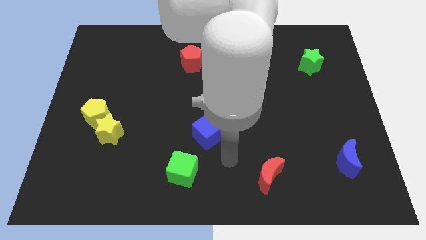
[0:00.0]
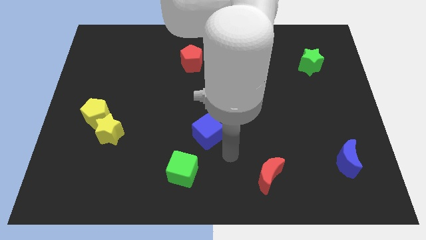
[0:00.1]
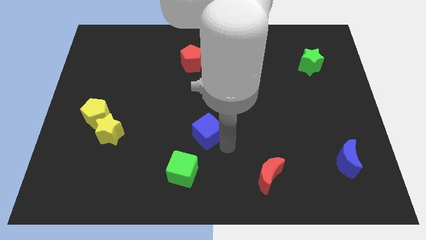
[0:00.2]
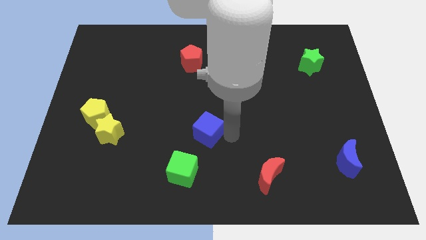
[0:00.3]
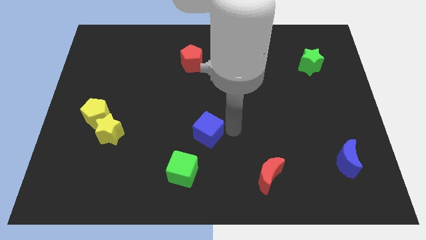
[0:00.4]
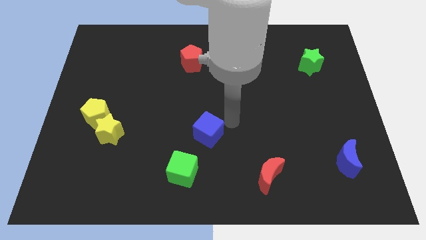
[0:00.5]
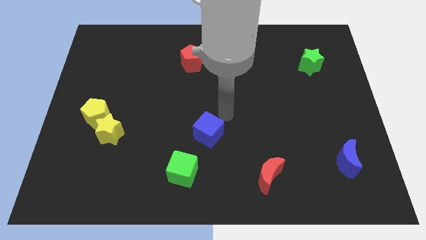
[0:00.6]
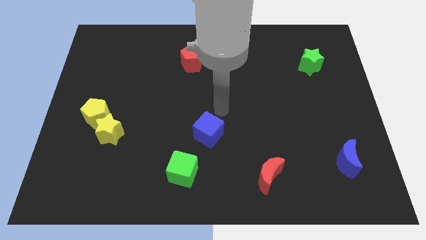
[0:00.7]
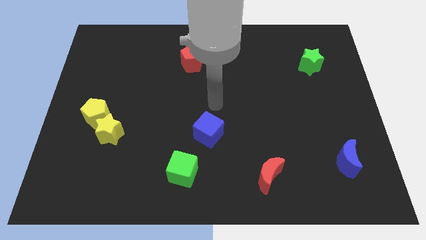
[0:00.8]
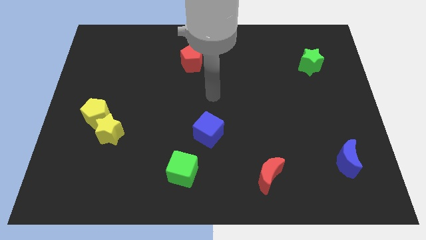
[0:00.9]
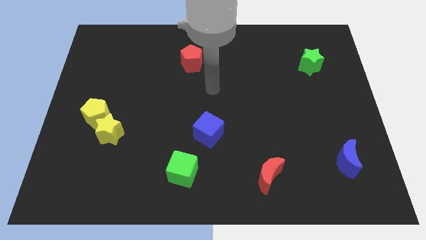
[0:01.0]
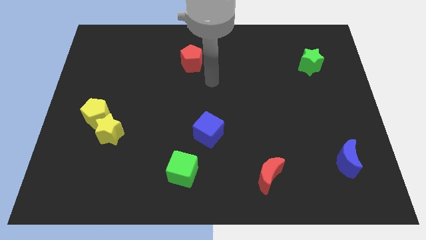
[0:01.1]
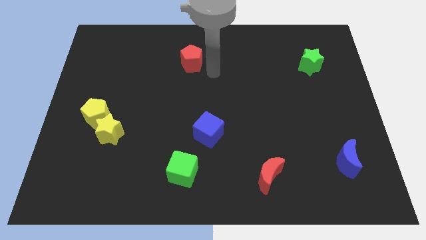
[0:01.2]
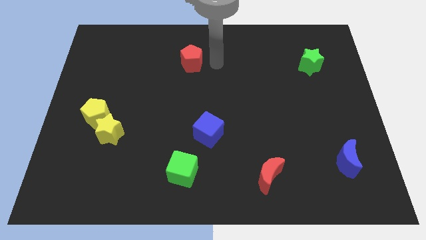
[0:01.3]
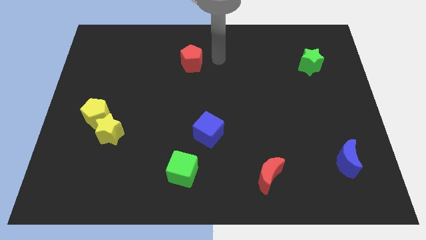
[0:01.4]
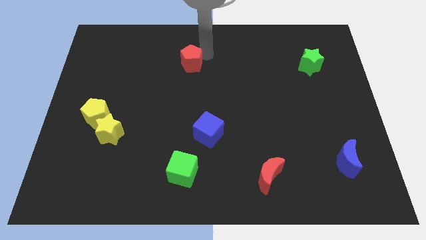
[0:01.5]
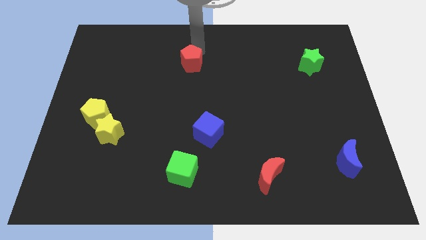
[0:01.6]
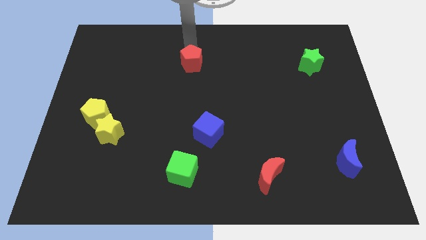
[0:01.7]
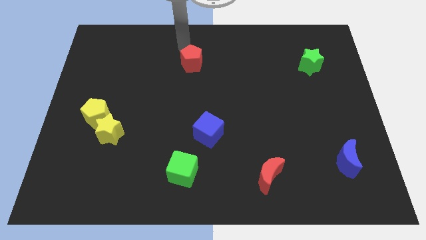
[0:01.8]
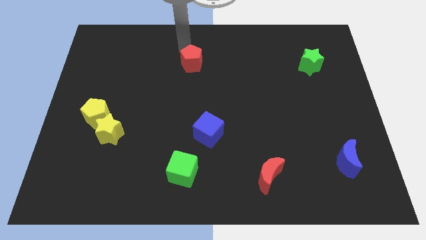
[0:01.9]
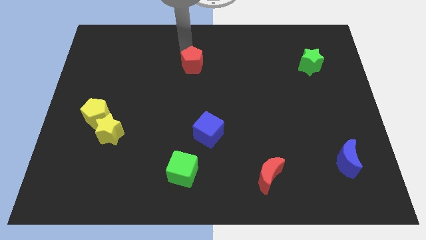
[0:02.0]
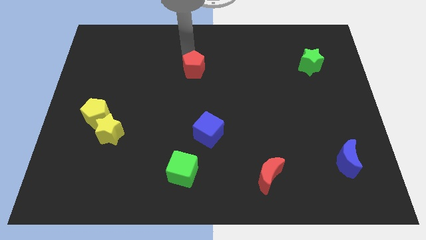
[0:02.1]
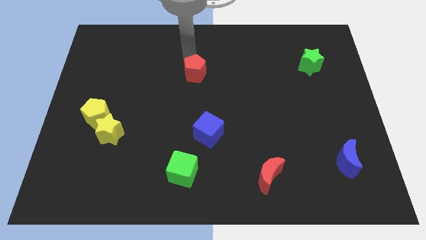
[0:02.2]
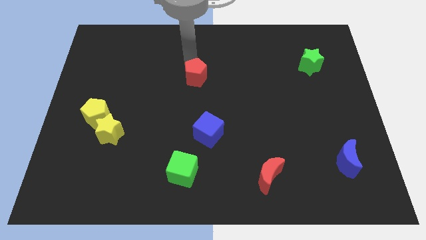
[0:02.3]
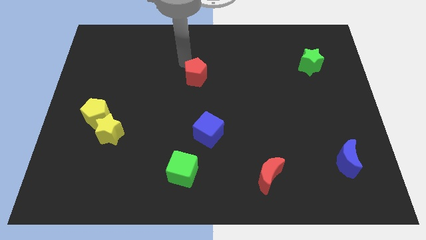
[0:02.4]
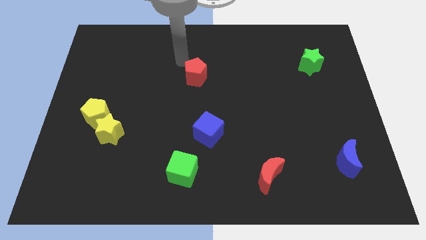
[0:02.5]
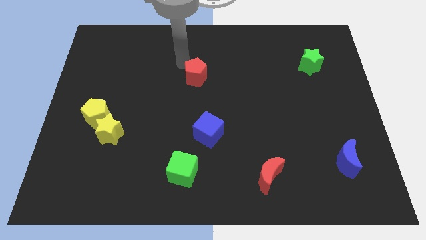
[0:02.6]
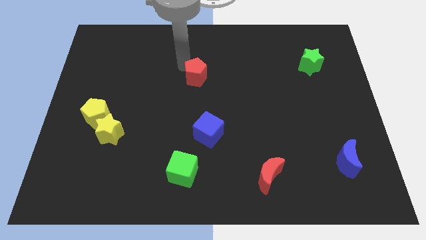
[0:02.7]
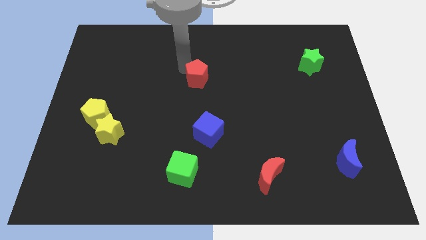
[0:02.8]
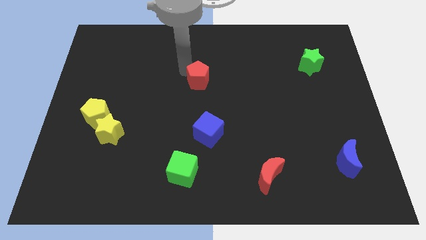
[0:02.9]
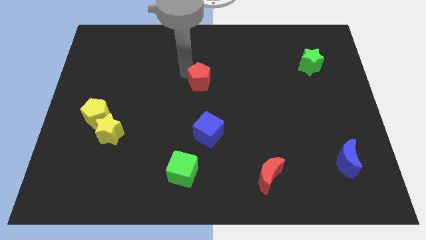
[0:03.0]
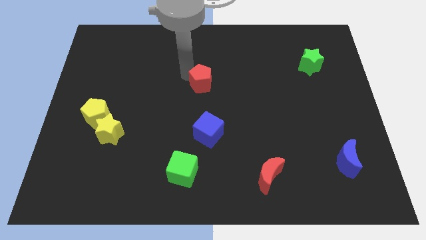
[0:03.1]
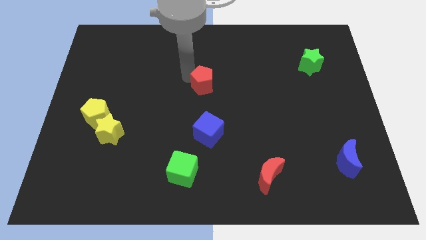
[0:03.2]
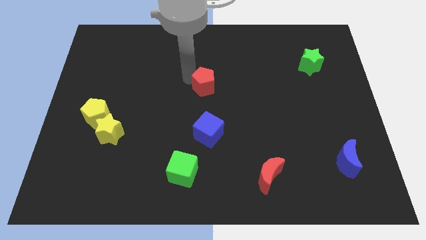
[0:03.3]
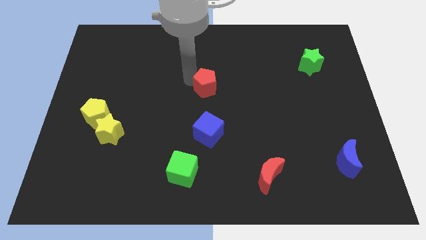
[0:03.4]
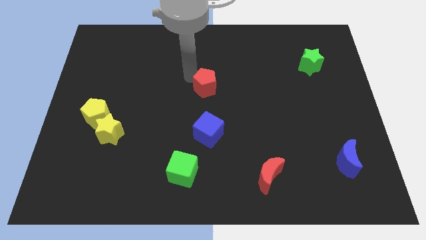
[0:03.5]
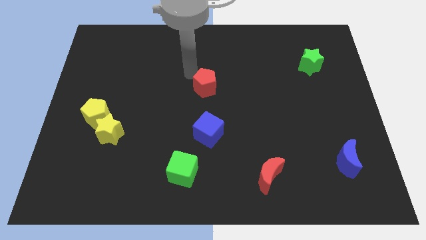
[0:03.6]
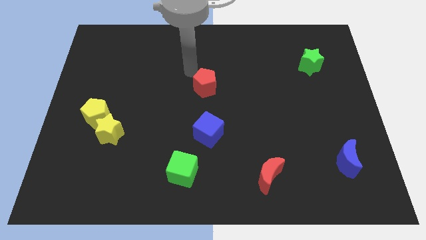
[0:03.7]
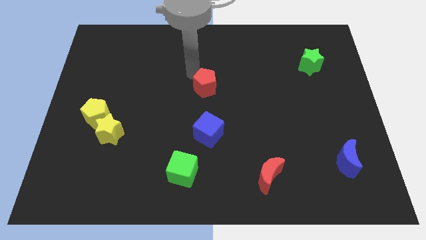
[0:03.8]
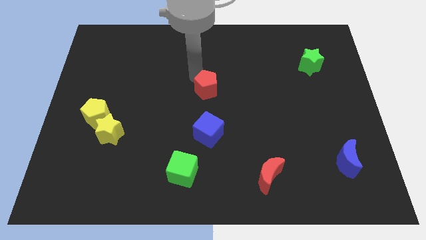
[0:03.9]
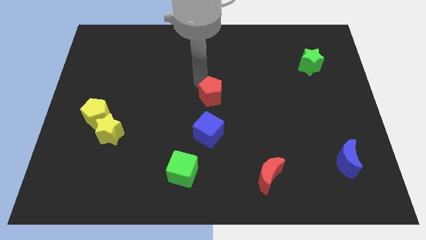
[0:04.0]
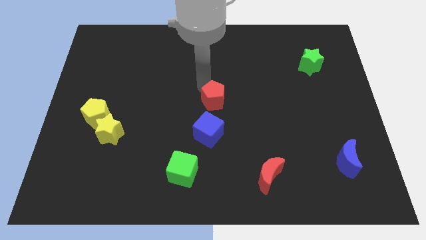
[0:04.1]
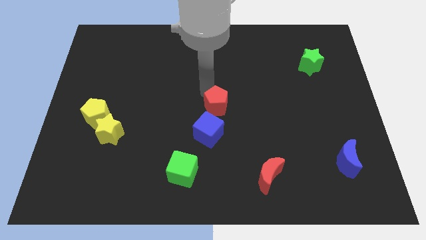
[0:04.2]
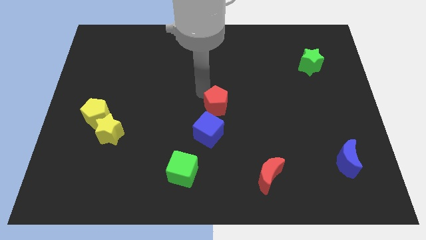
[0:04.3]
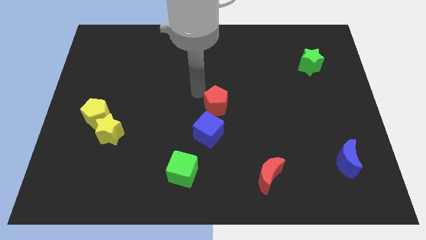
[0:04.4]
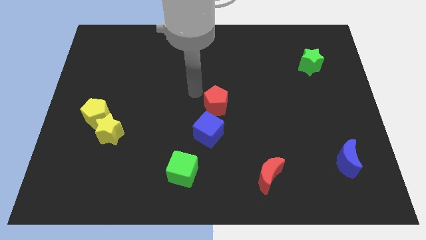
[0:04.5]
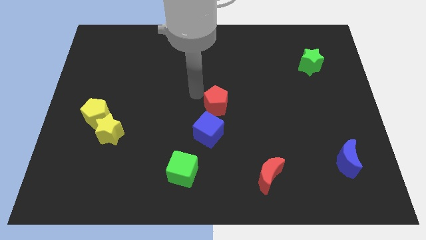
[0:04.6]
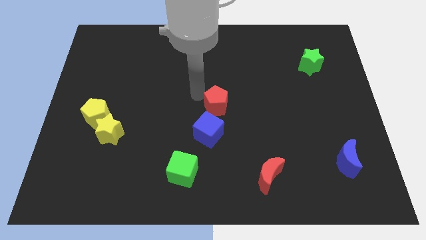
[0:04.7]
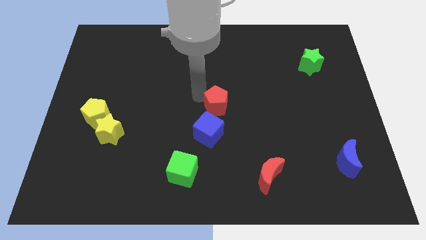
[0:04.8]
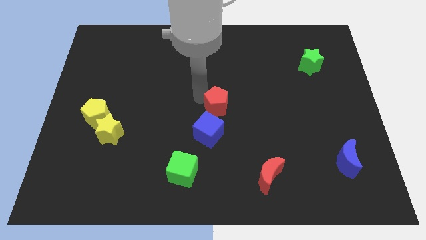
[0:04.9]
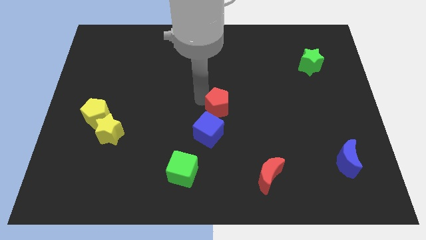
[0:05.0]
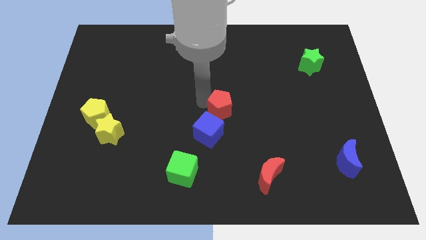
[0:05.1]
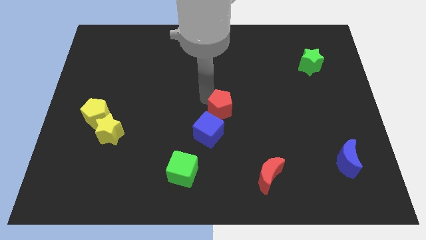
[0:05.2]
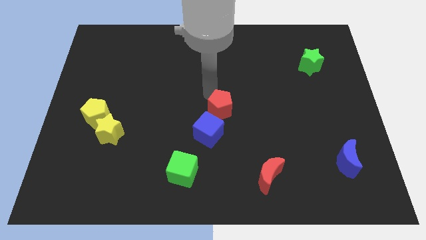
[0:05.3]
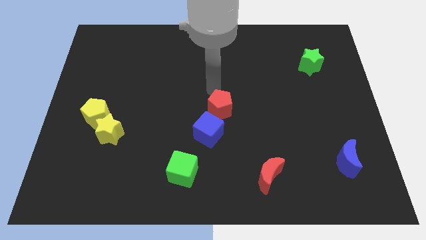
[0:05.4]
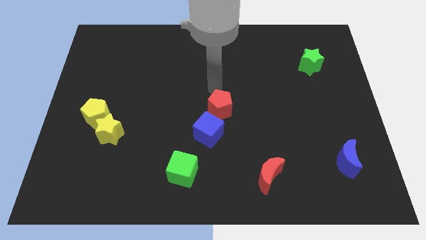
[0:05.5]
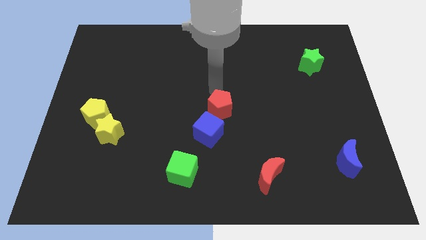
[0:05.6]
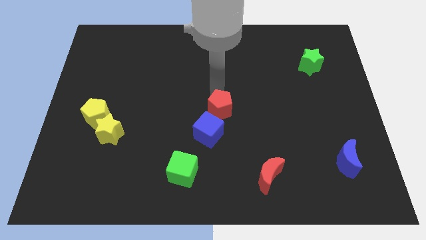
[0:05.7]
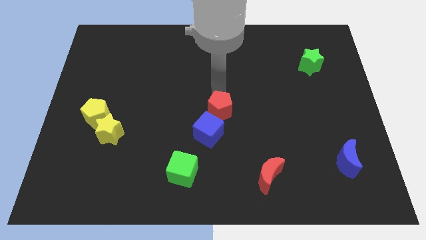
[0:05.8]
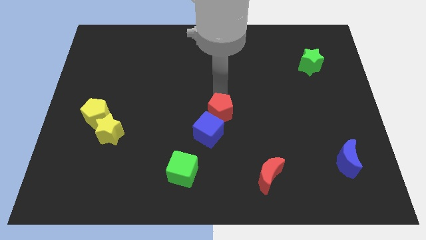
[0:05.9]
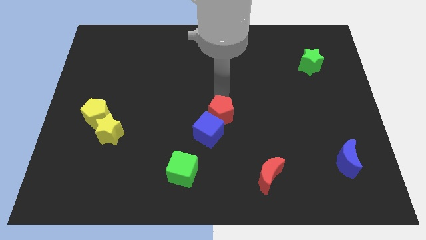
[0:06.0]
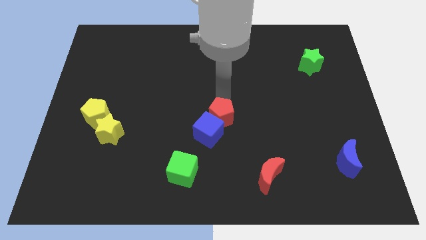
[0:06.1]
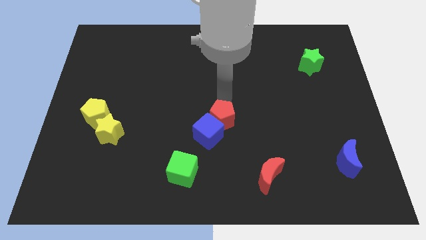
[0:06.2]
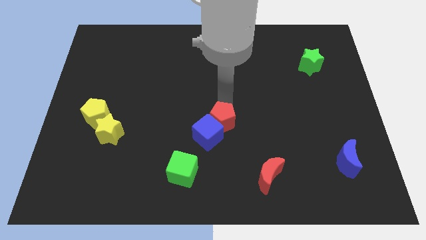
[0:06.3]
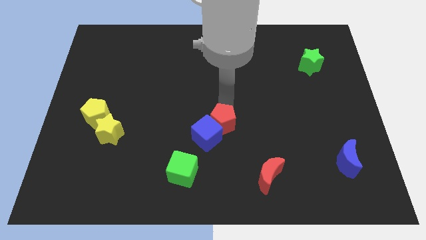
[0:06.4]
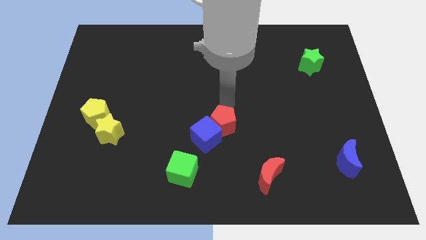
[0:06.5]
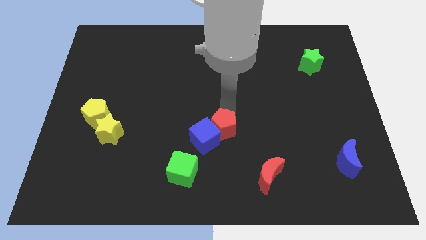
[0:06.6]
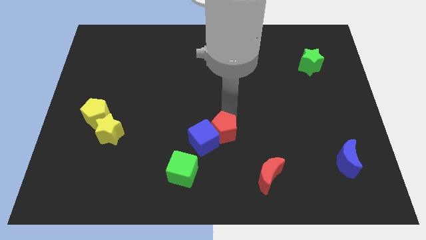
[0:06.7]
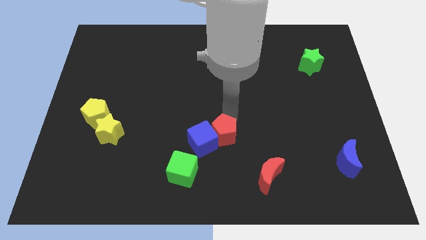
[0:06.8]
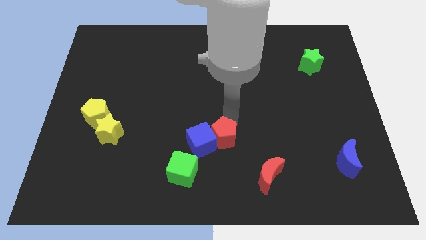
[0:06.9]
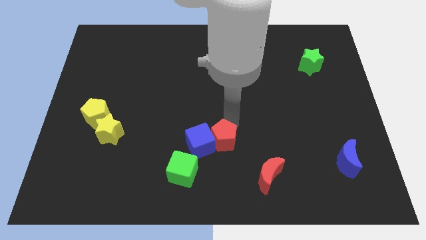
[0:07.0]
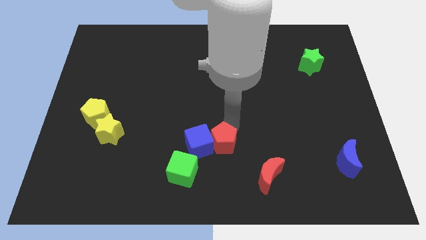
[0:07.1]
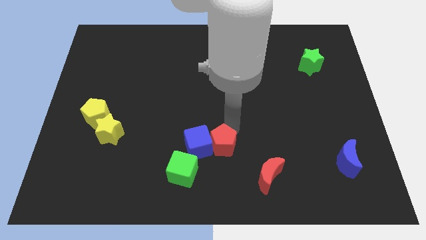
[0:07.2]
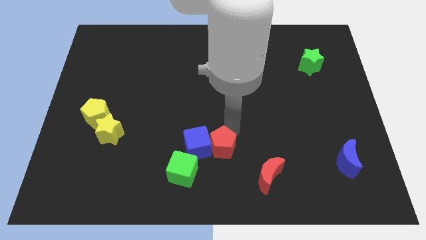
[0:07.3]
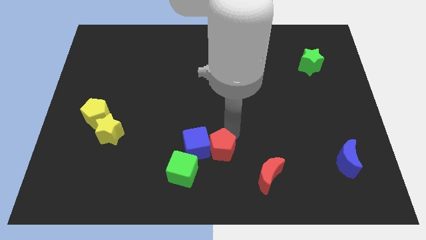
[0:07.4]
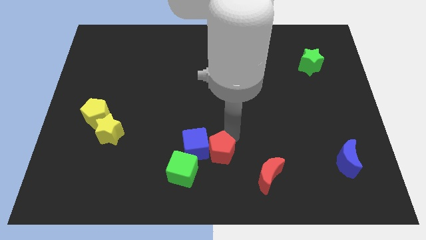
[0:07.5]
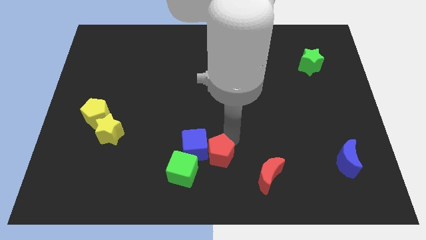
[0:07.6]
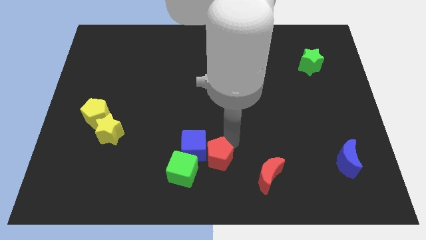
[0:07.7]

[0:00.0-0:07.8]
slide the red pentagon just left of the red moon

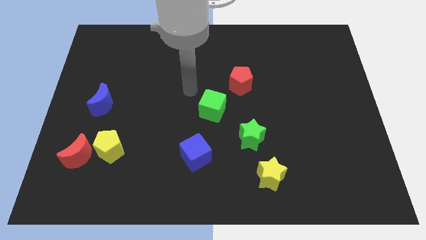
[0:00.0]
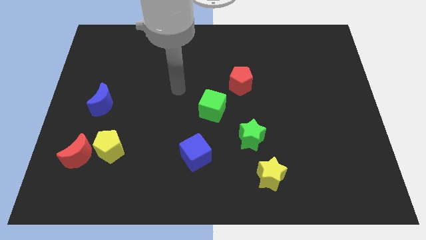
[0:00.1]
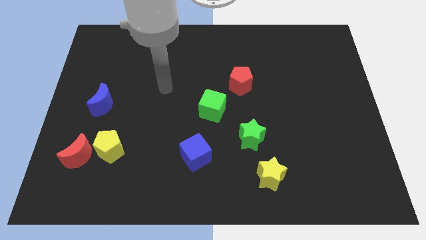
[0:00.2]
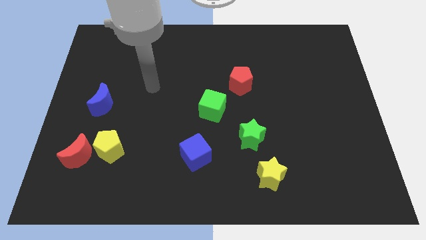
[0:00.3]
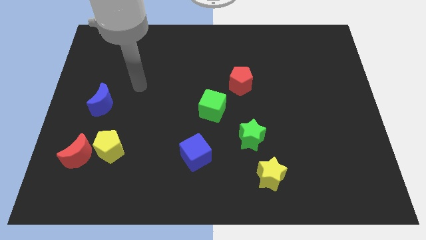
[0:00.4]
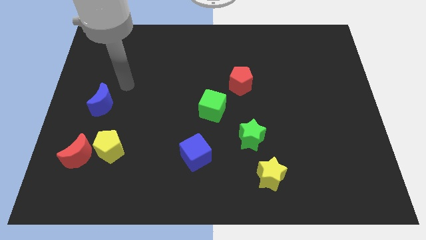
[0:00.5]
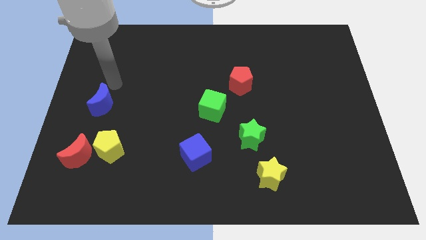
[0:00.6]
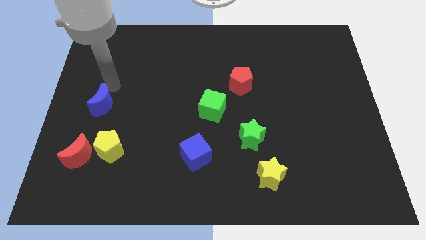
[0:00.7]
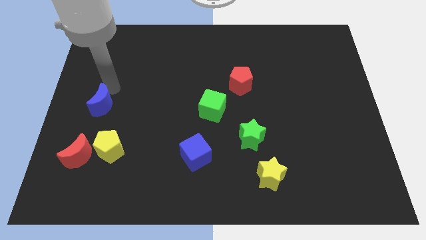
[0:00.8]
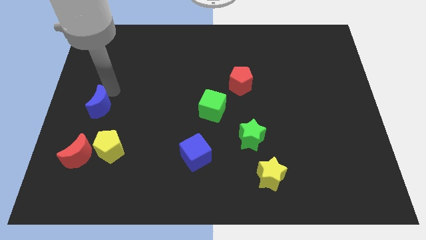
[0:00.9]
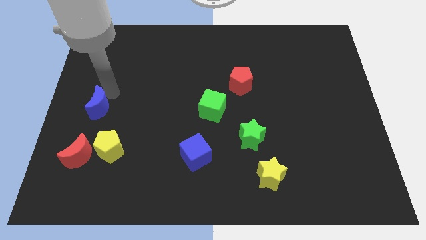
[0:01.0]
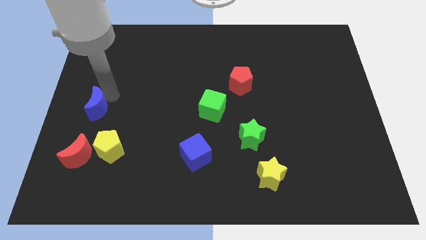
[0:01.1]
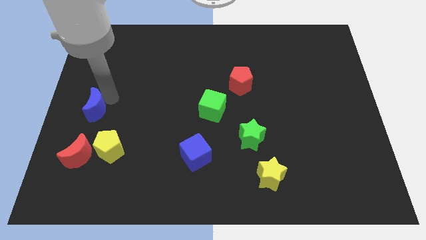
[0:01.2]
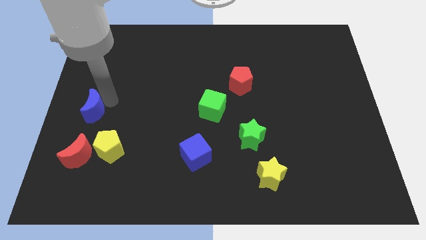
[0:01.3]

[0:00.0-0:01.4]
put the blue moon to the top left of the yellow pentagon
